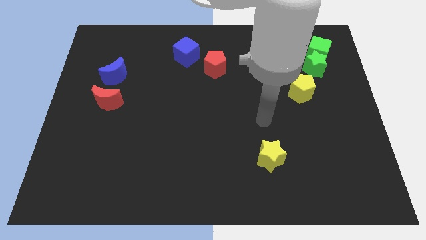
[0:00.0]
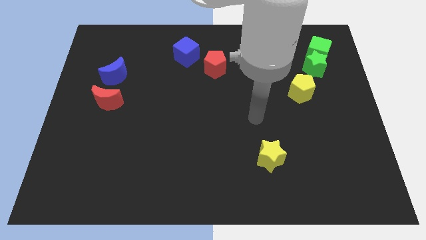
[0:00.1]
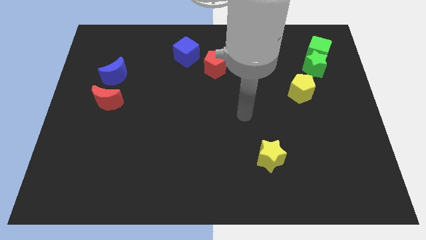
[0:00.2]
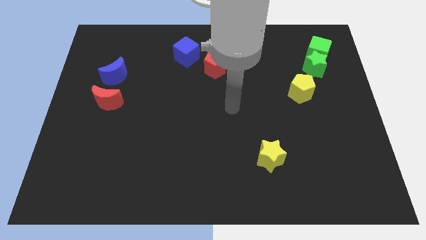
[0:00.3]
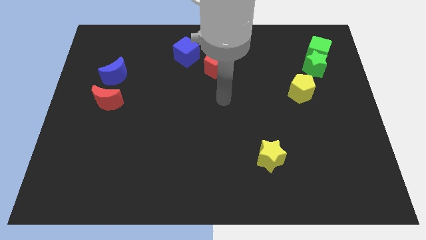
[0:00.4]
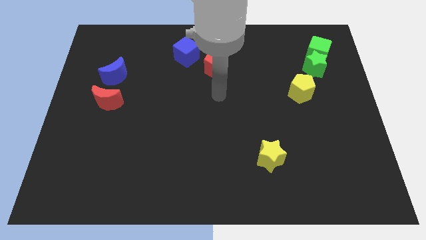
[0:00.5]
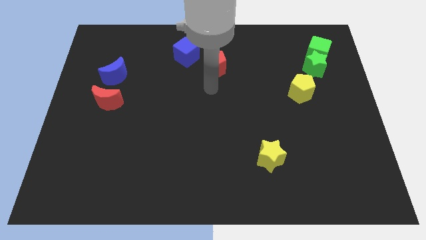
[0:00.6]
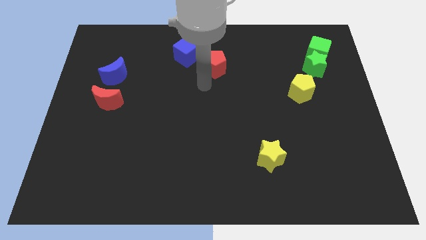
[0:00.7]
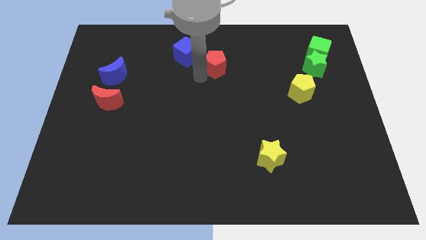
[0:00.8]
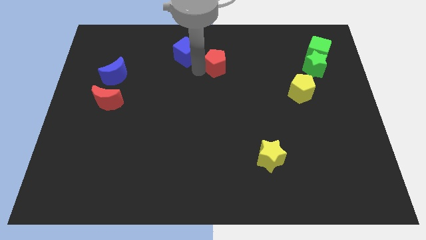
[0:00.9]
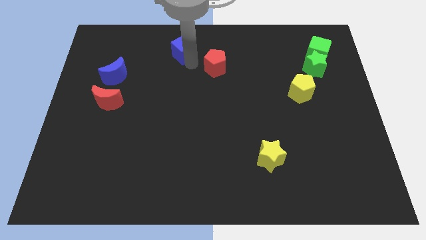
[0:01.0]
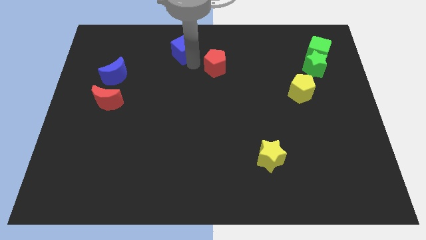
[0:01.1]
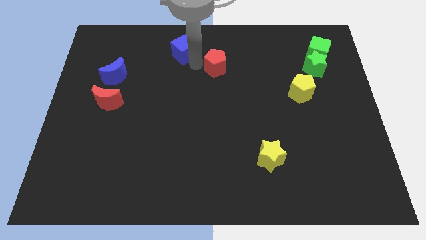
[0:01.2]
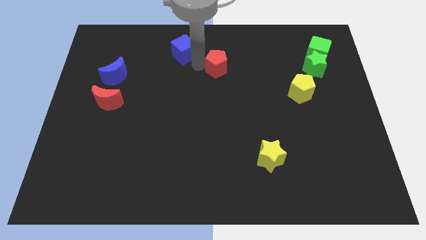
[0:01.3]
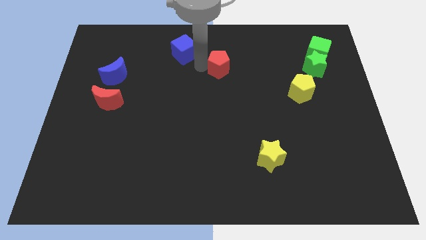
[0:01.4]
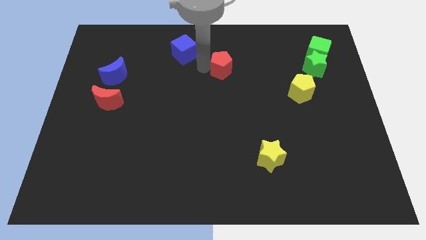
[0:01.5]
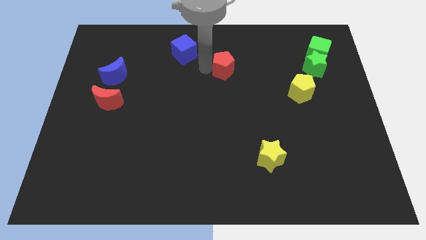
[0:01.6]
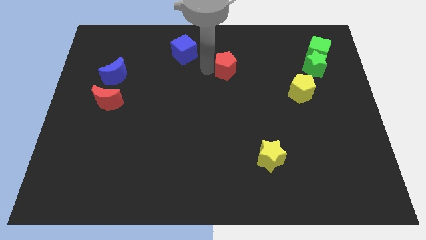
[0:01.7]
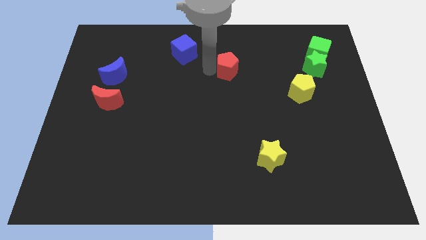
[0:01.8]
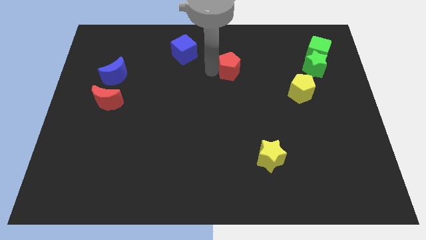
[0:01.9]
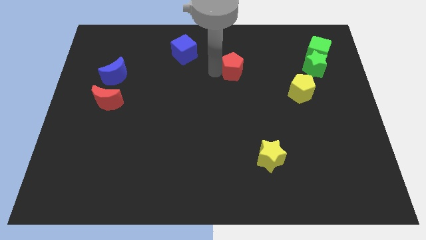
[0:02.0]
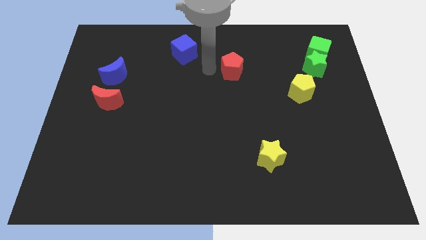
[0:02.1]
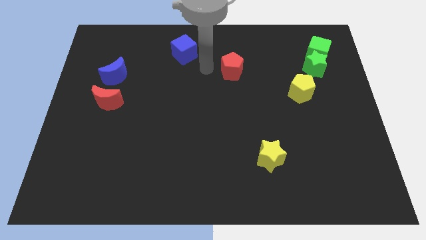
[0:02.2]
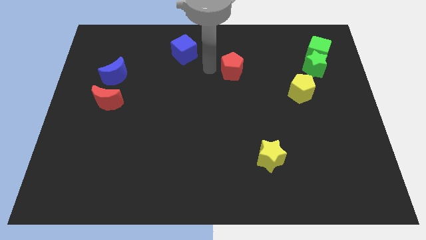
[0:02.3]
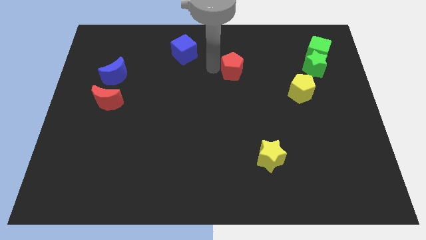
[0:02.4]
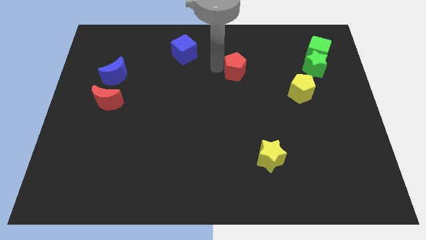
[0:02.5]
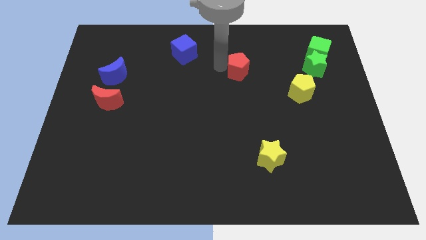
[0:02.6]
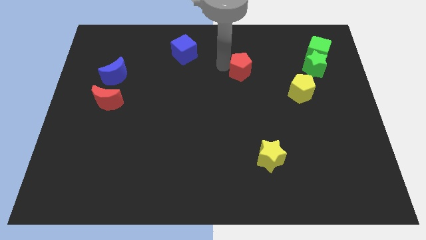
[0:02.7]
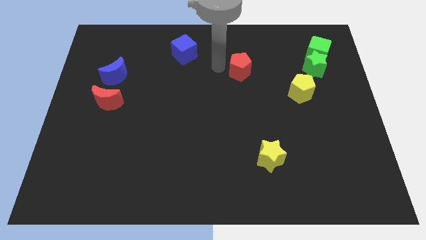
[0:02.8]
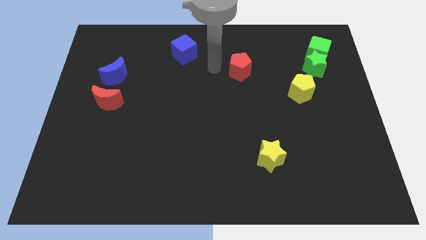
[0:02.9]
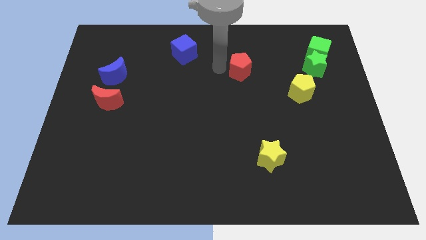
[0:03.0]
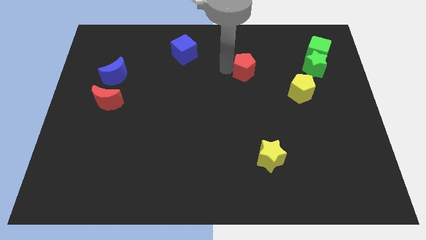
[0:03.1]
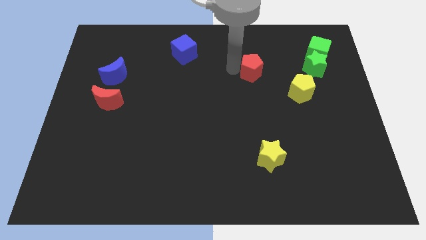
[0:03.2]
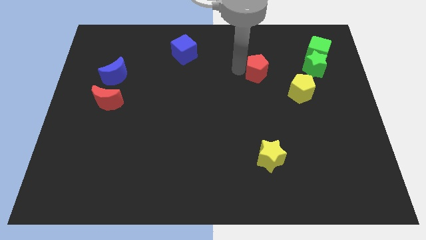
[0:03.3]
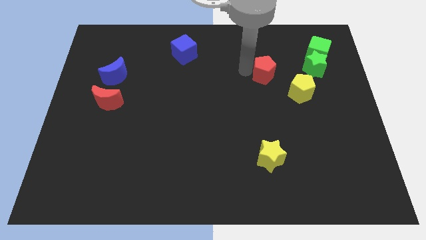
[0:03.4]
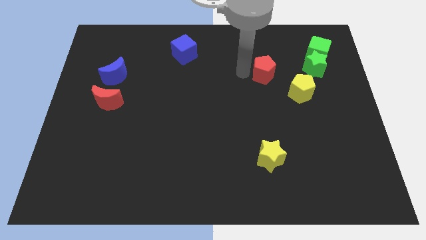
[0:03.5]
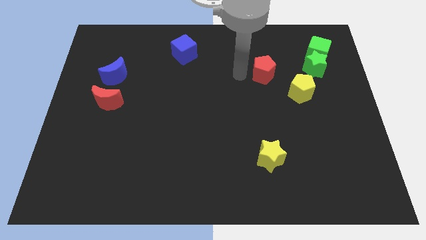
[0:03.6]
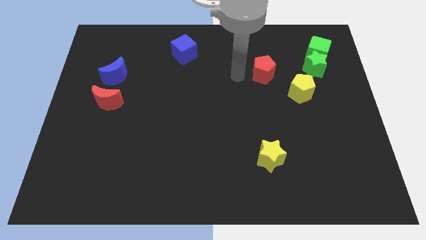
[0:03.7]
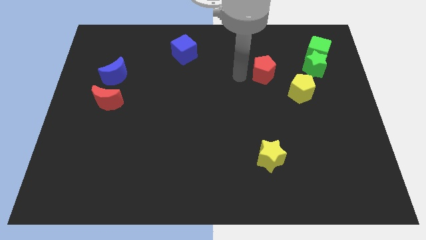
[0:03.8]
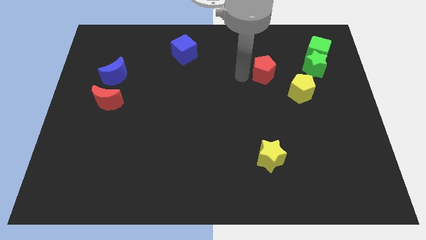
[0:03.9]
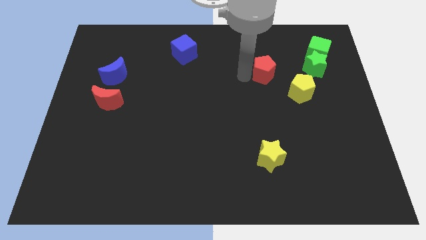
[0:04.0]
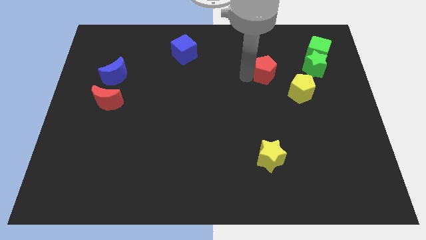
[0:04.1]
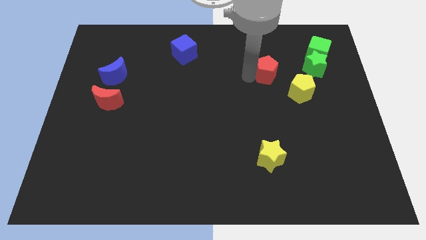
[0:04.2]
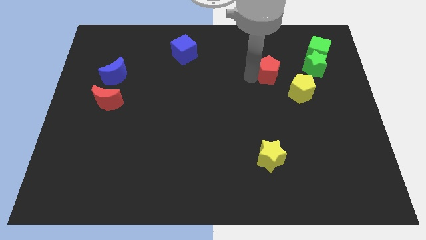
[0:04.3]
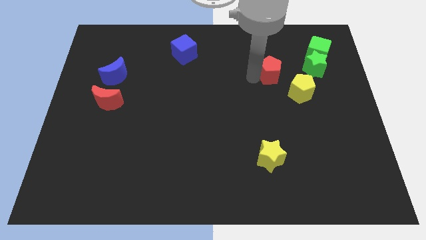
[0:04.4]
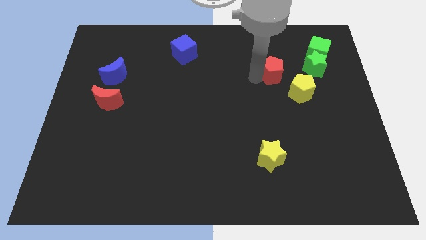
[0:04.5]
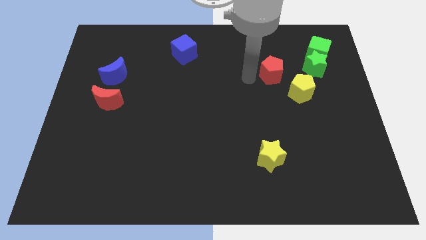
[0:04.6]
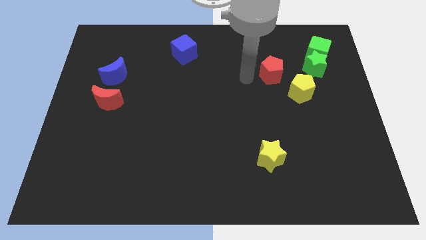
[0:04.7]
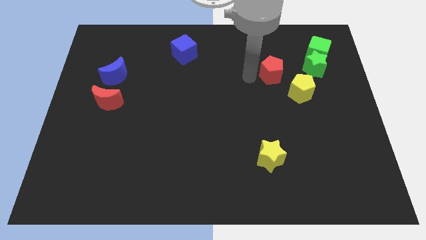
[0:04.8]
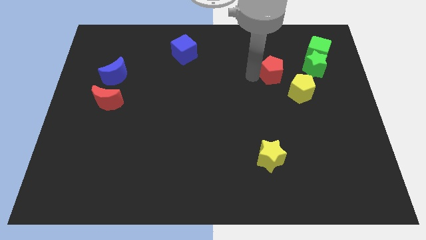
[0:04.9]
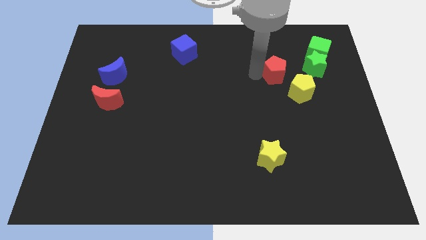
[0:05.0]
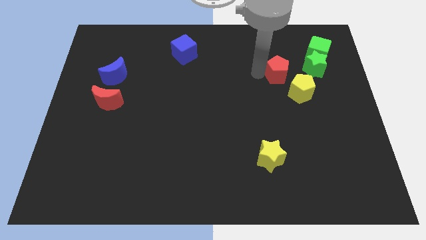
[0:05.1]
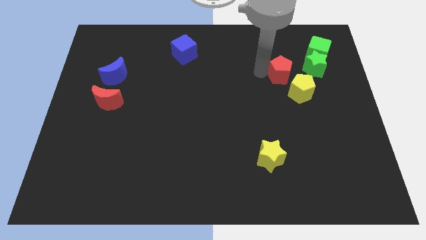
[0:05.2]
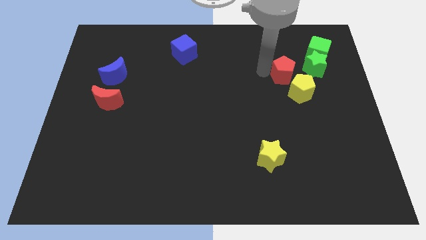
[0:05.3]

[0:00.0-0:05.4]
slide the red pentagon to the bottom left side of the green cube

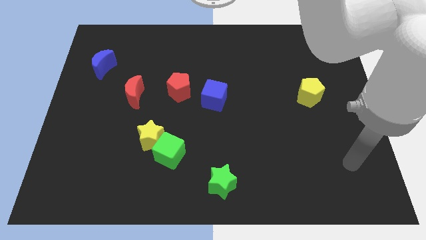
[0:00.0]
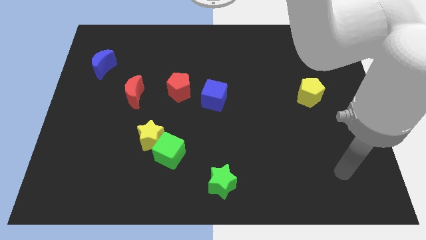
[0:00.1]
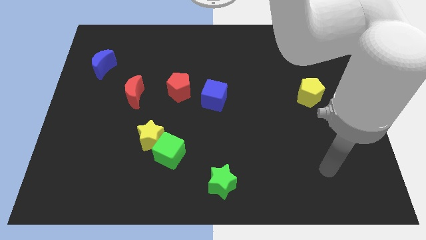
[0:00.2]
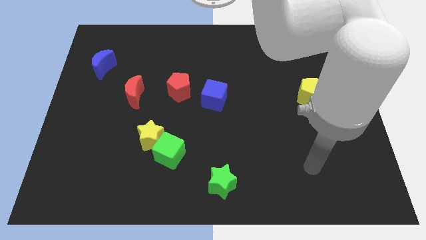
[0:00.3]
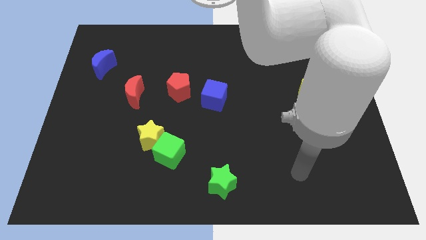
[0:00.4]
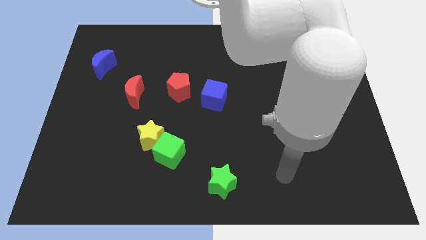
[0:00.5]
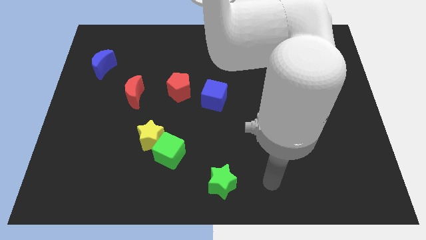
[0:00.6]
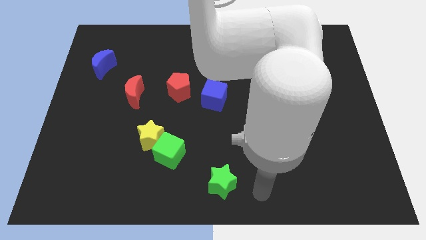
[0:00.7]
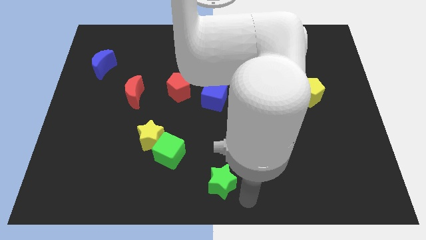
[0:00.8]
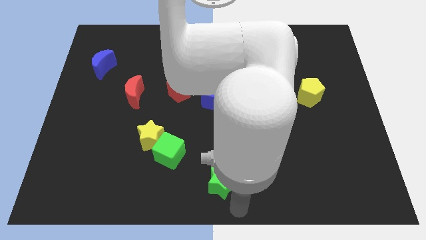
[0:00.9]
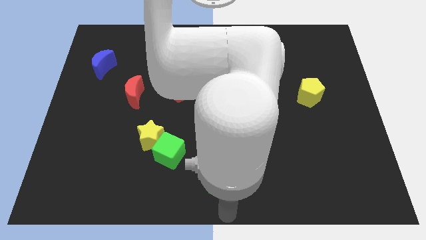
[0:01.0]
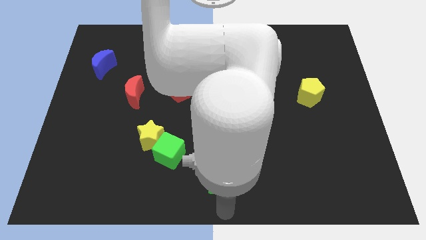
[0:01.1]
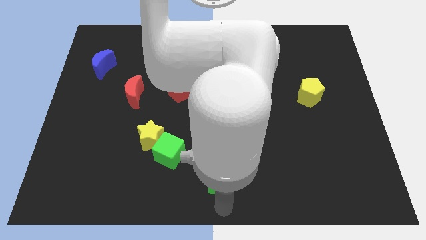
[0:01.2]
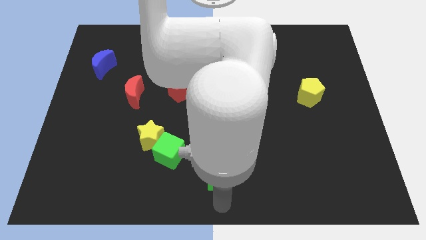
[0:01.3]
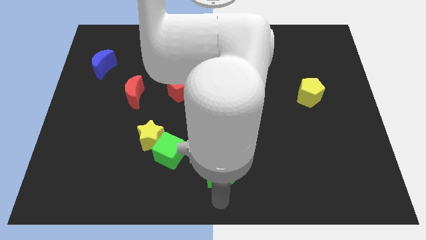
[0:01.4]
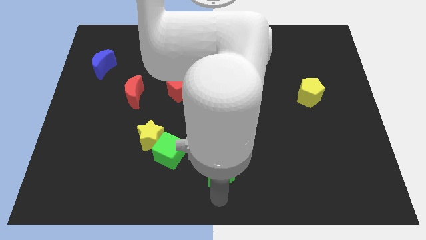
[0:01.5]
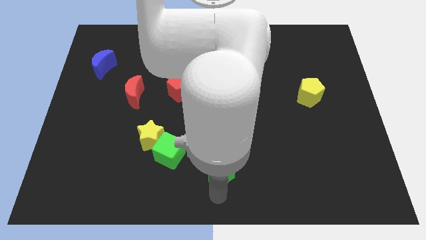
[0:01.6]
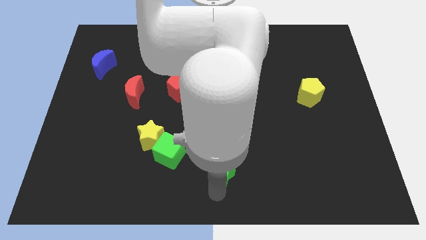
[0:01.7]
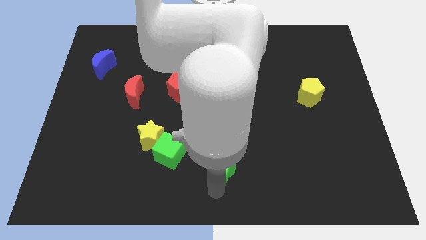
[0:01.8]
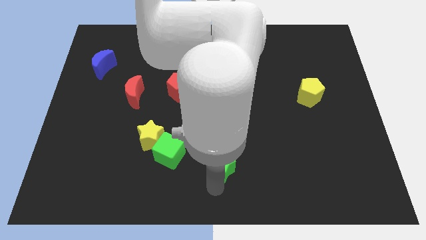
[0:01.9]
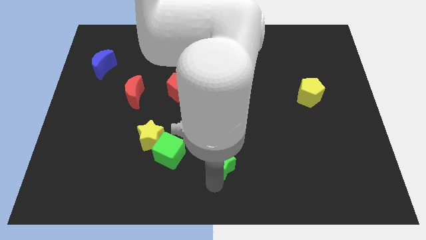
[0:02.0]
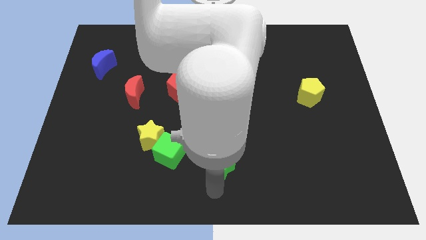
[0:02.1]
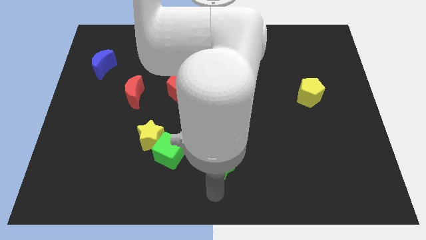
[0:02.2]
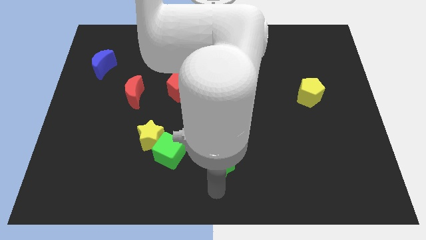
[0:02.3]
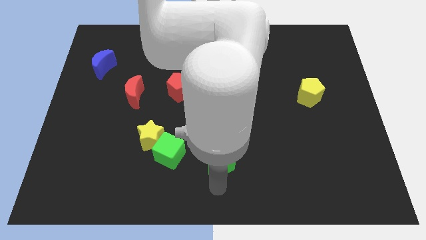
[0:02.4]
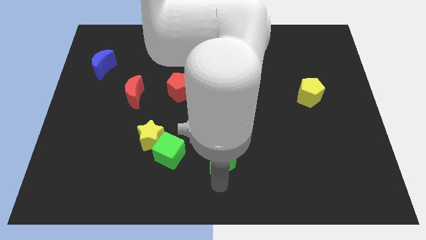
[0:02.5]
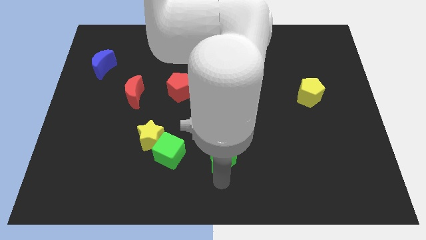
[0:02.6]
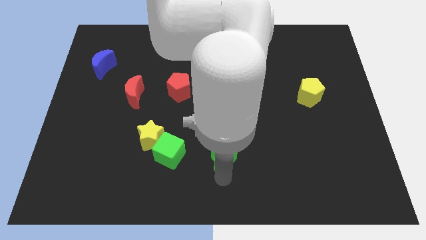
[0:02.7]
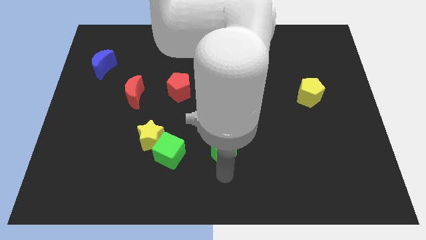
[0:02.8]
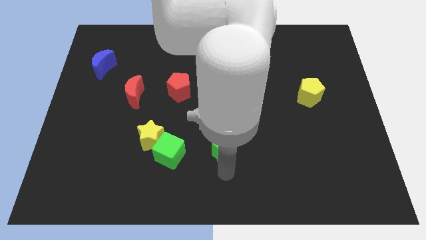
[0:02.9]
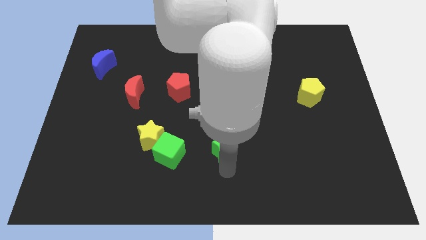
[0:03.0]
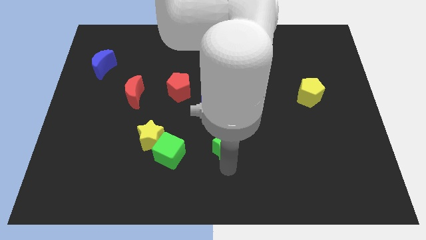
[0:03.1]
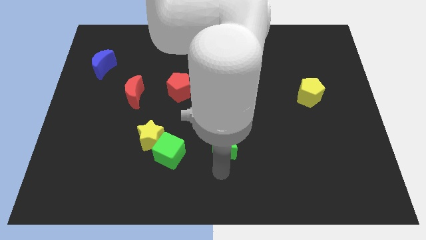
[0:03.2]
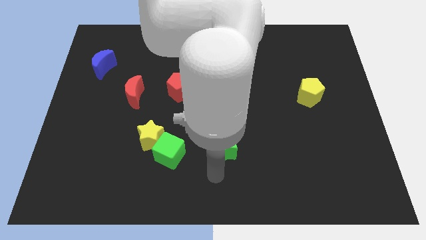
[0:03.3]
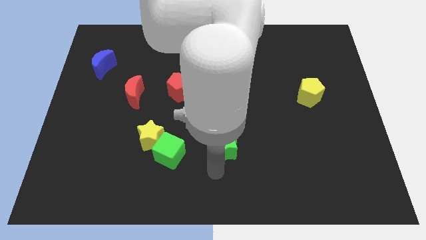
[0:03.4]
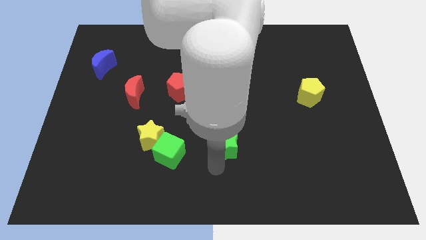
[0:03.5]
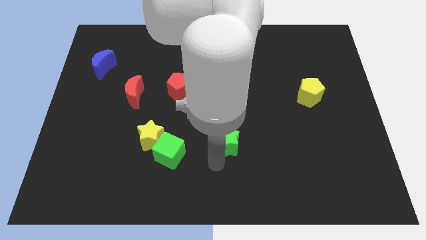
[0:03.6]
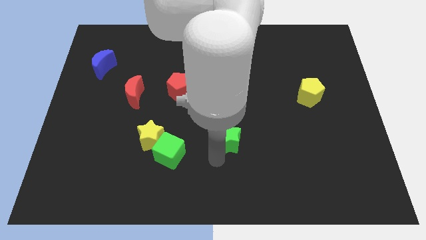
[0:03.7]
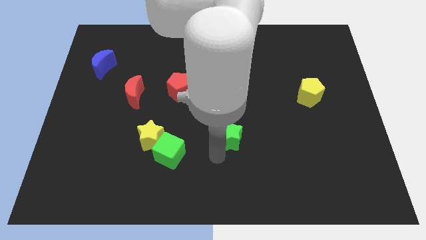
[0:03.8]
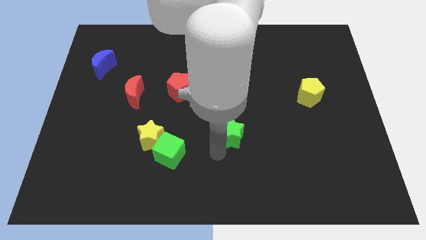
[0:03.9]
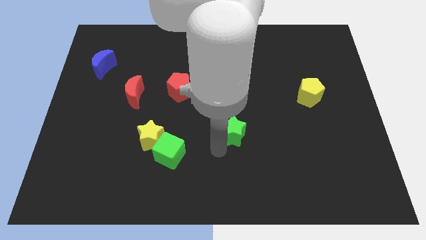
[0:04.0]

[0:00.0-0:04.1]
move the green star to the bottom right side of the blue cube
